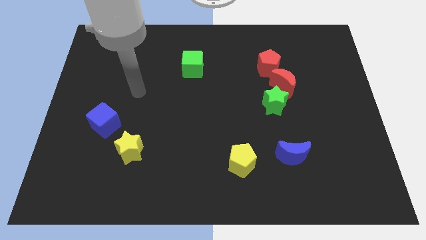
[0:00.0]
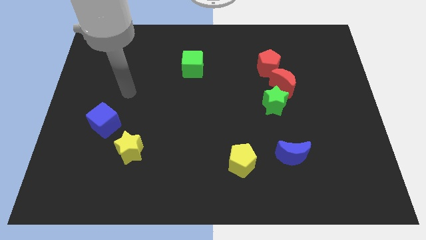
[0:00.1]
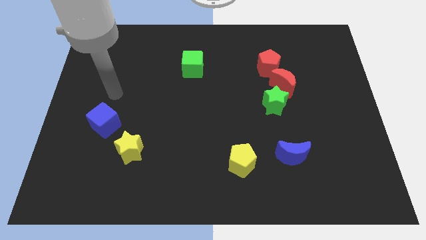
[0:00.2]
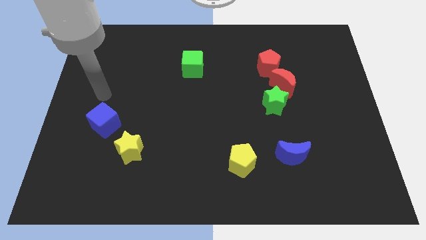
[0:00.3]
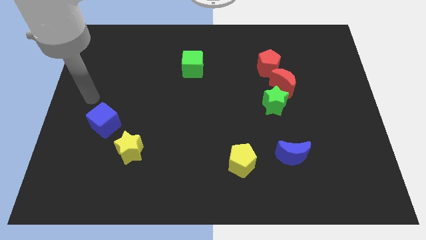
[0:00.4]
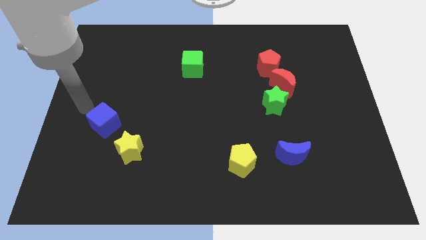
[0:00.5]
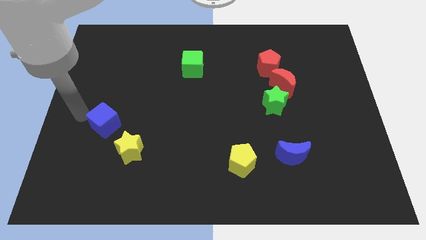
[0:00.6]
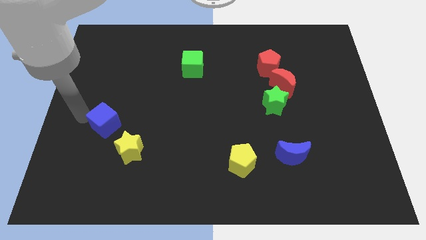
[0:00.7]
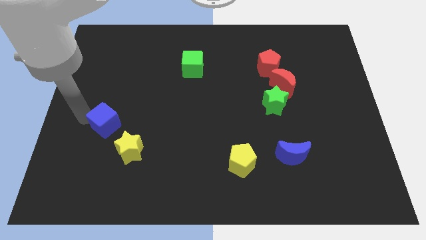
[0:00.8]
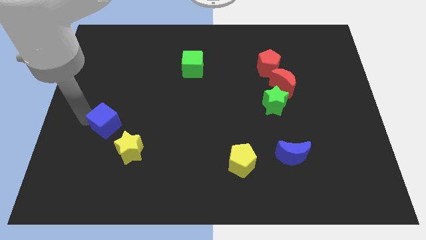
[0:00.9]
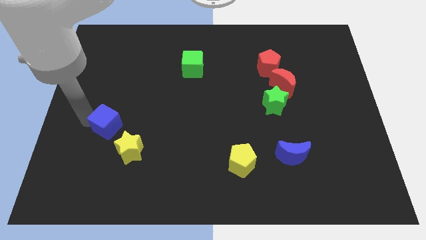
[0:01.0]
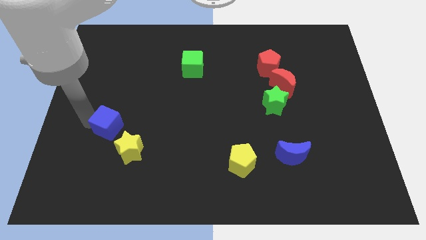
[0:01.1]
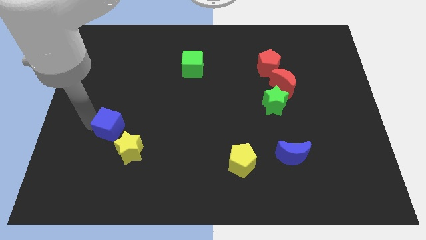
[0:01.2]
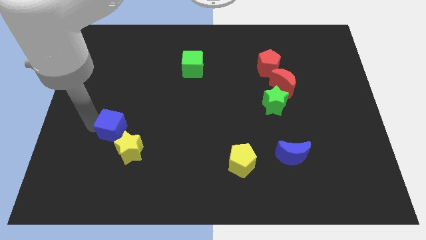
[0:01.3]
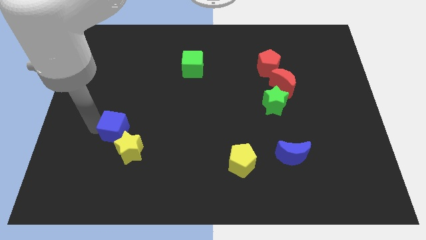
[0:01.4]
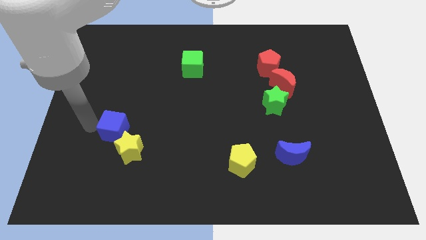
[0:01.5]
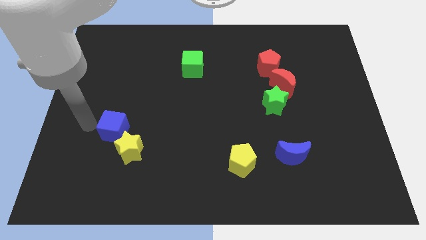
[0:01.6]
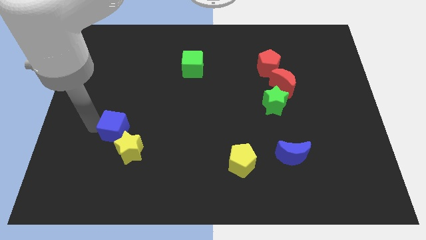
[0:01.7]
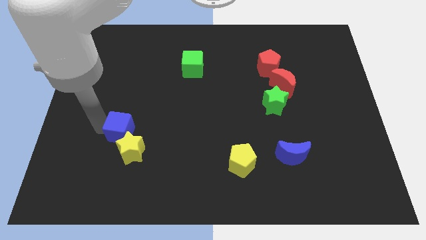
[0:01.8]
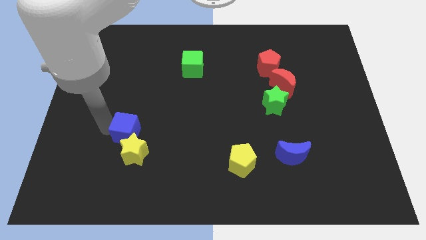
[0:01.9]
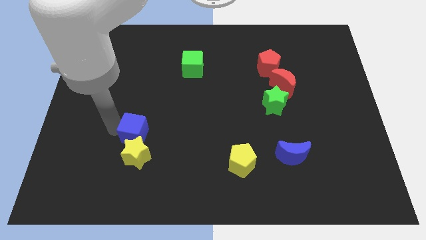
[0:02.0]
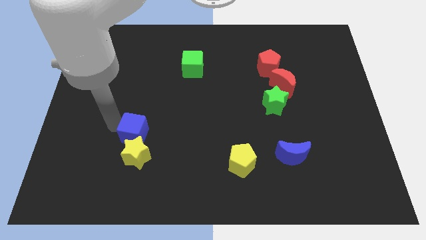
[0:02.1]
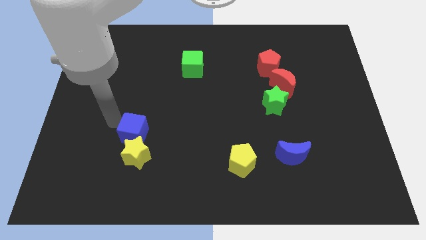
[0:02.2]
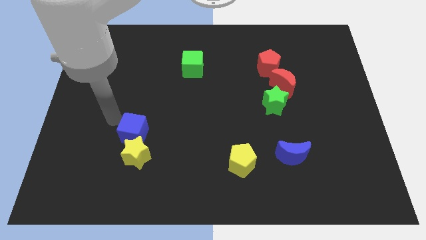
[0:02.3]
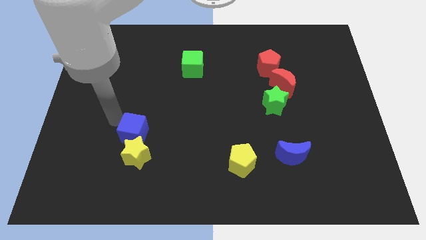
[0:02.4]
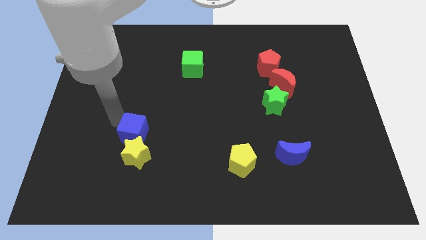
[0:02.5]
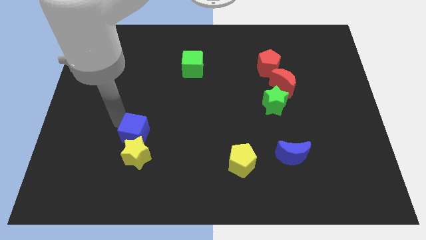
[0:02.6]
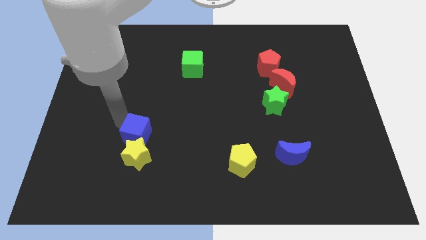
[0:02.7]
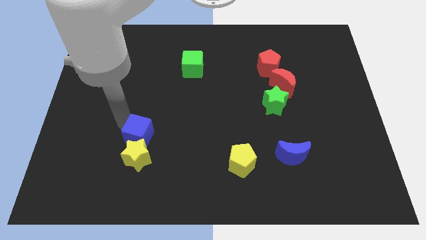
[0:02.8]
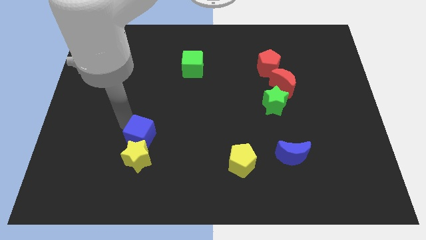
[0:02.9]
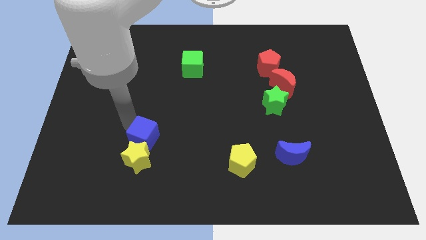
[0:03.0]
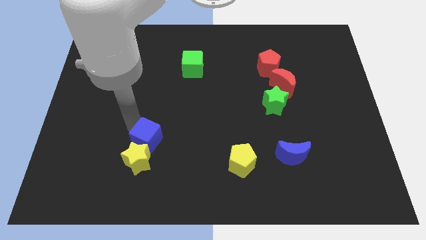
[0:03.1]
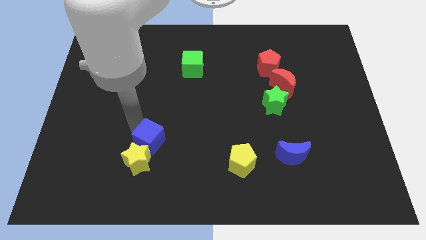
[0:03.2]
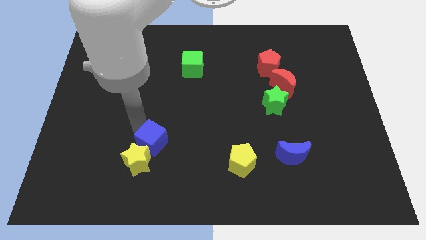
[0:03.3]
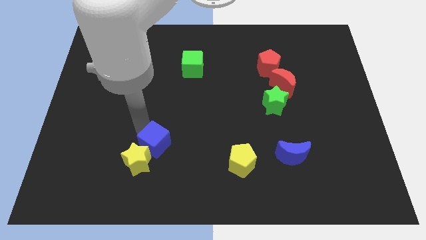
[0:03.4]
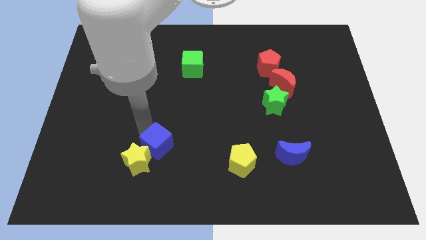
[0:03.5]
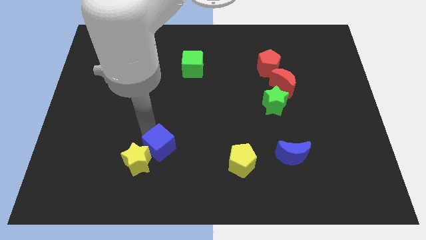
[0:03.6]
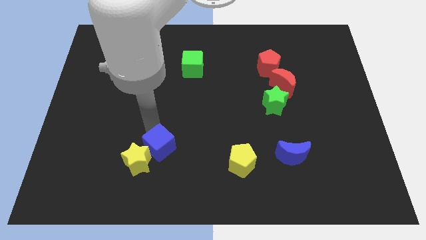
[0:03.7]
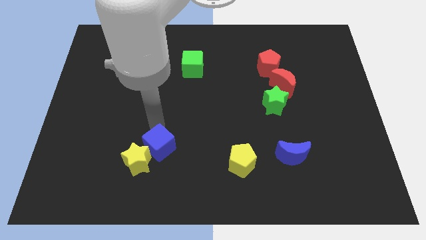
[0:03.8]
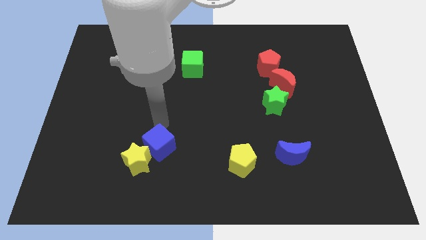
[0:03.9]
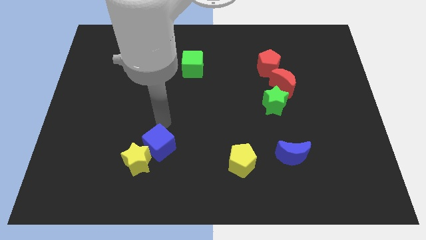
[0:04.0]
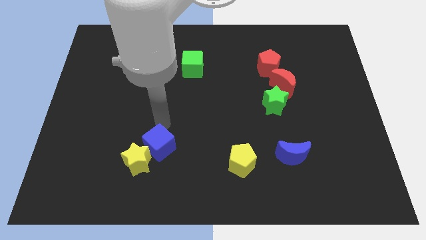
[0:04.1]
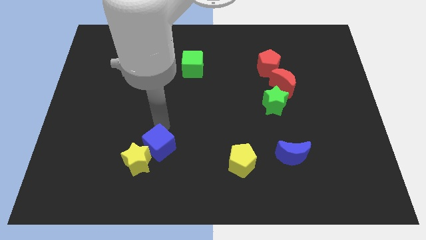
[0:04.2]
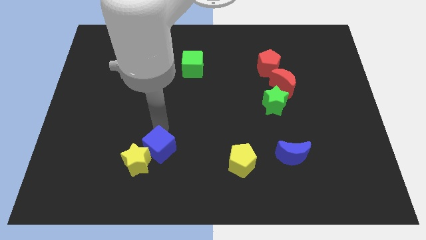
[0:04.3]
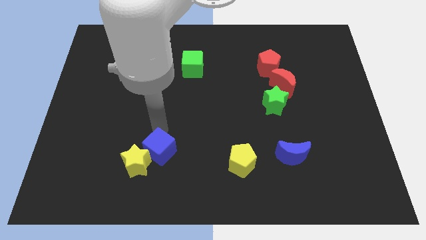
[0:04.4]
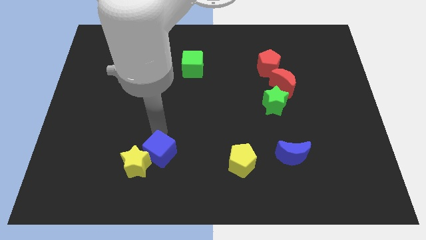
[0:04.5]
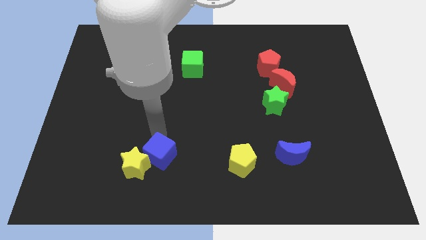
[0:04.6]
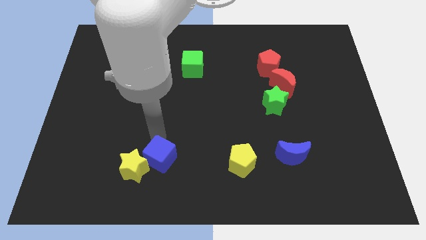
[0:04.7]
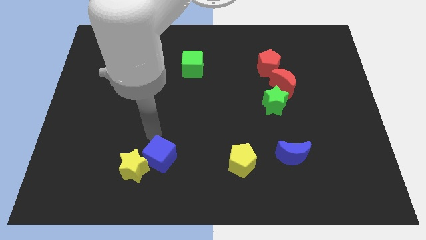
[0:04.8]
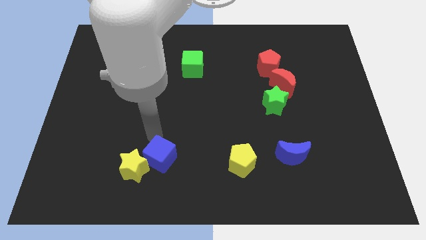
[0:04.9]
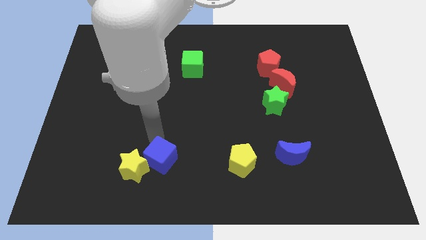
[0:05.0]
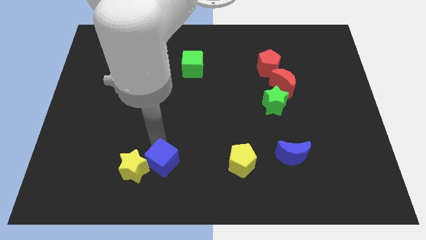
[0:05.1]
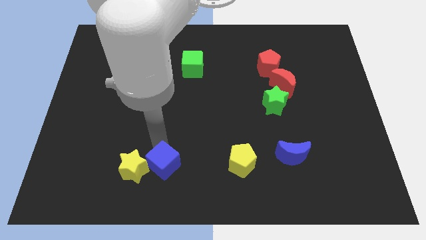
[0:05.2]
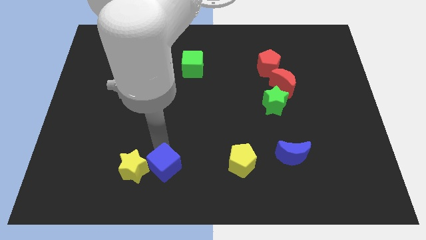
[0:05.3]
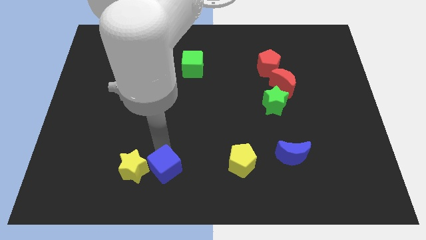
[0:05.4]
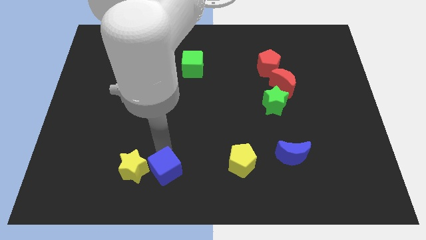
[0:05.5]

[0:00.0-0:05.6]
put the blue cube to the bottom side

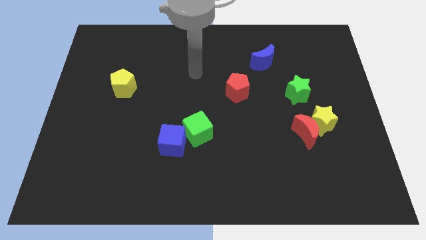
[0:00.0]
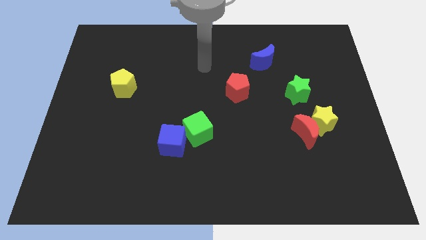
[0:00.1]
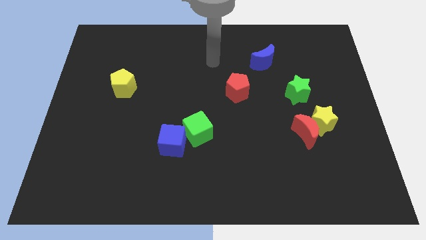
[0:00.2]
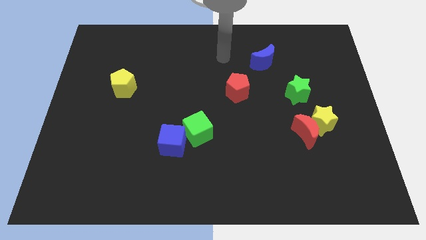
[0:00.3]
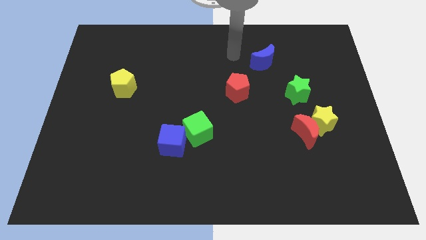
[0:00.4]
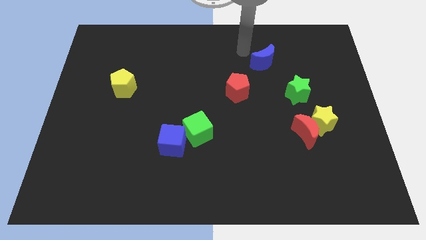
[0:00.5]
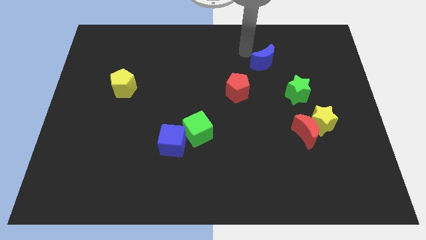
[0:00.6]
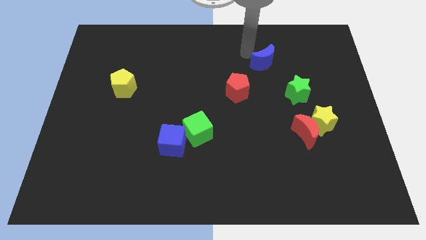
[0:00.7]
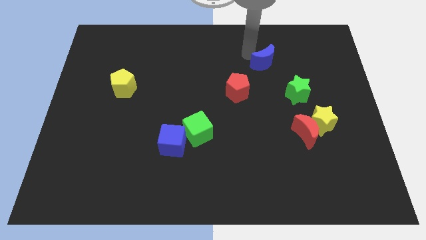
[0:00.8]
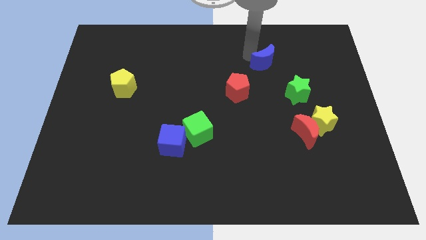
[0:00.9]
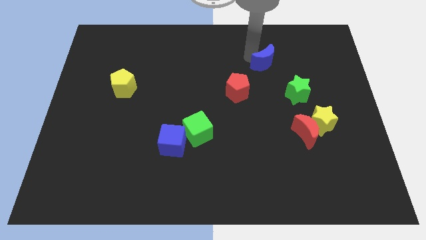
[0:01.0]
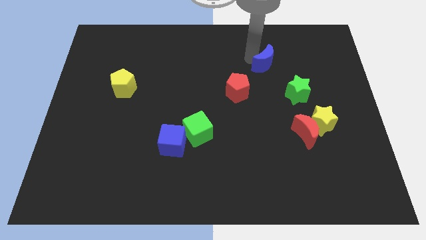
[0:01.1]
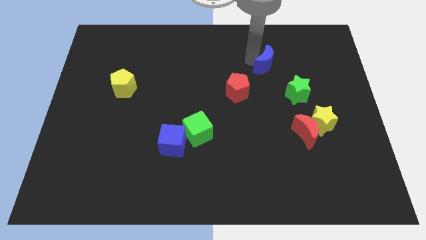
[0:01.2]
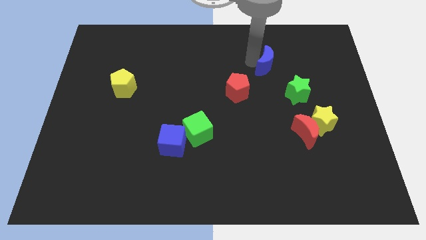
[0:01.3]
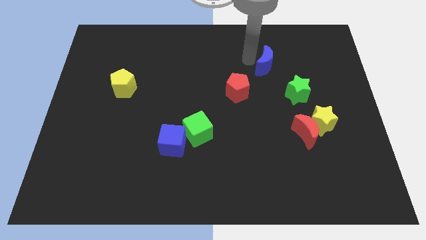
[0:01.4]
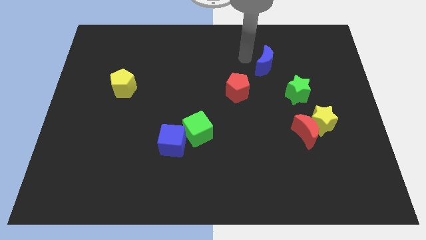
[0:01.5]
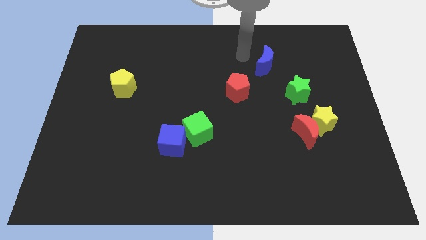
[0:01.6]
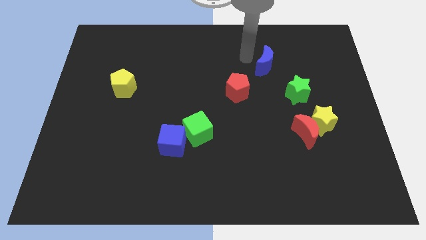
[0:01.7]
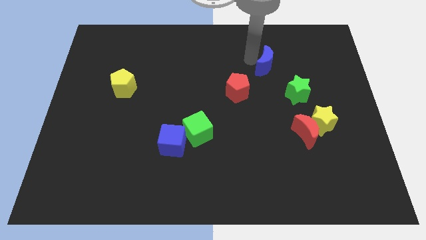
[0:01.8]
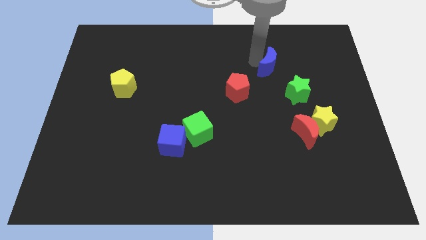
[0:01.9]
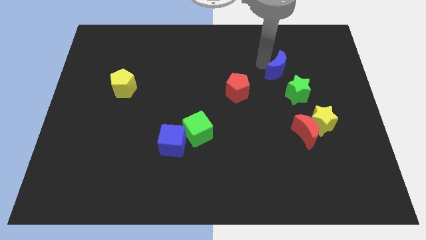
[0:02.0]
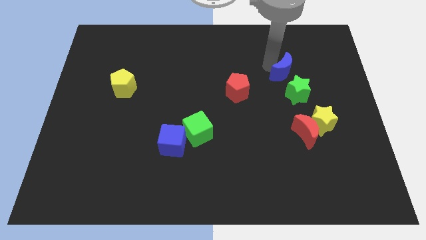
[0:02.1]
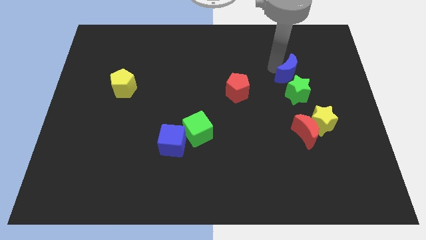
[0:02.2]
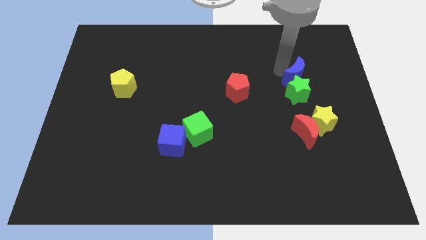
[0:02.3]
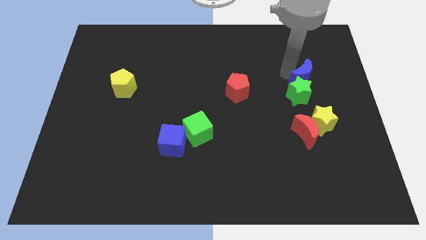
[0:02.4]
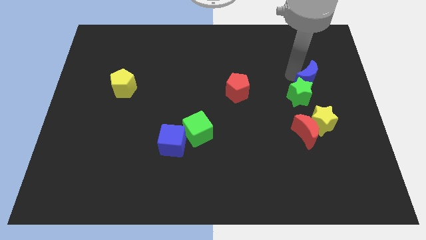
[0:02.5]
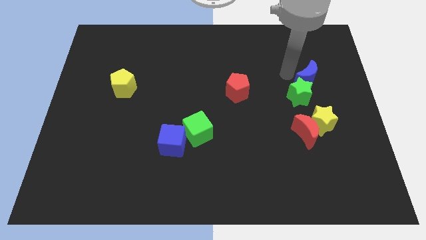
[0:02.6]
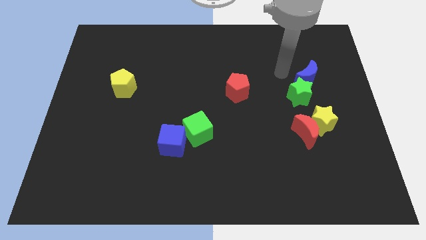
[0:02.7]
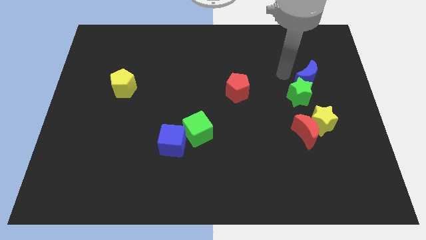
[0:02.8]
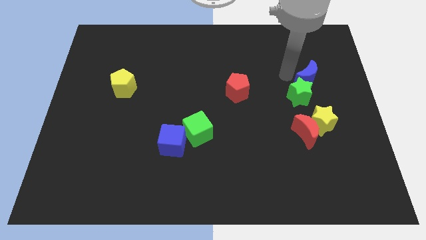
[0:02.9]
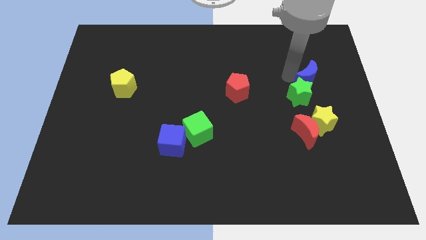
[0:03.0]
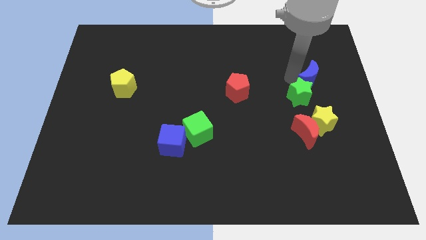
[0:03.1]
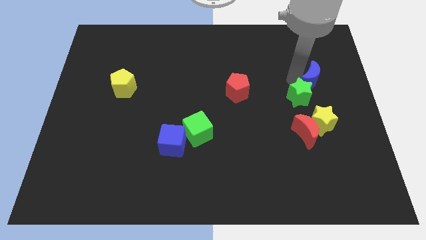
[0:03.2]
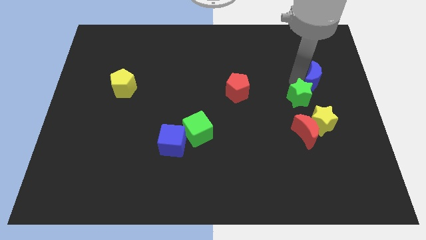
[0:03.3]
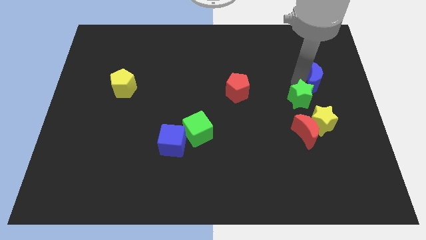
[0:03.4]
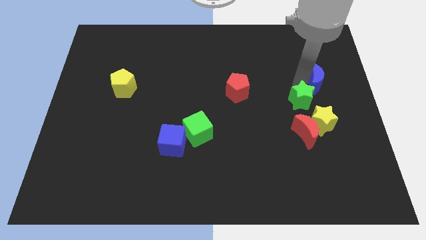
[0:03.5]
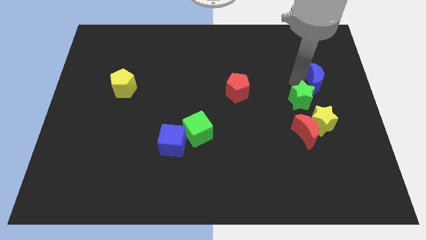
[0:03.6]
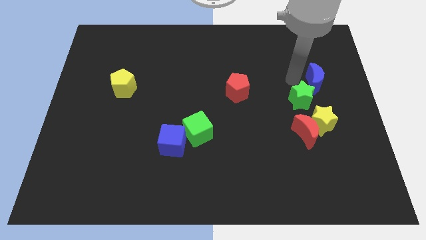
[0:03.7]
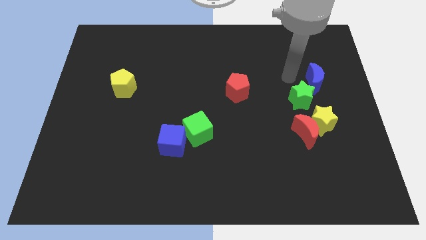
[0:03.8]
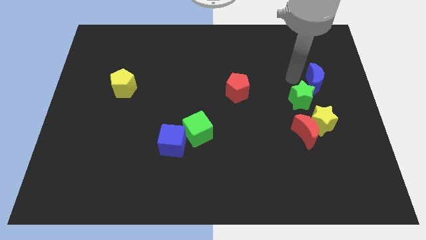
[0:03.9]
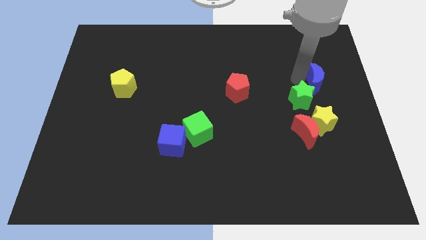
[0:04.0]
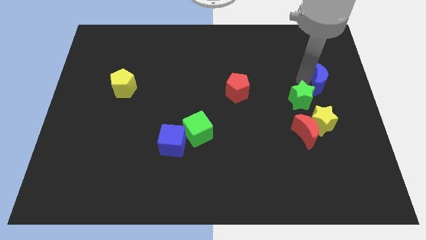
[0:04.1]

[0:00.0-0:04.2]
push the blue moon to the center right
